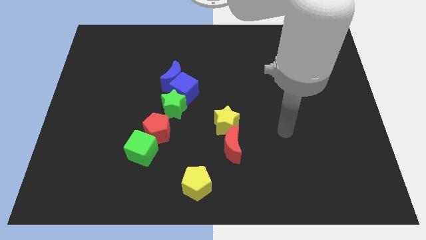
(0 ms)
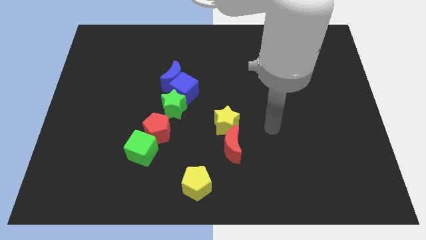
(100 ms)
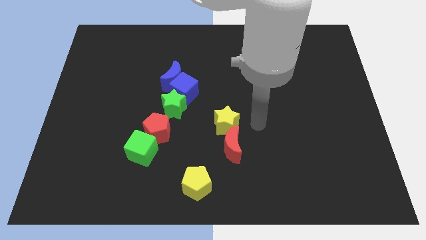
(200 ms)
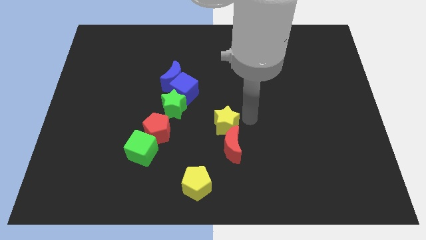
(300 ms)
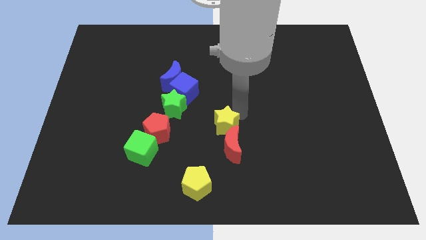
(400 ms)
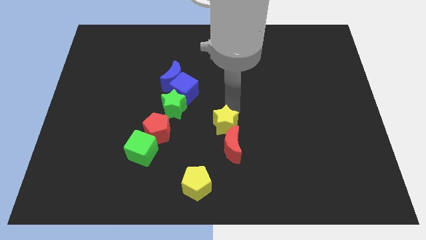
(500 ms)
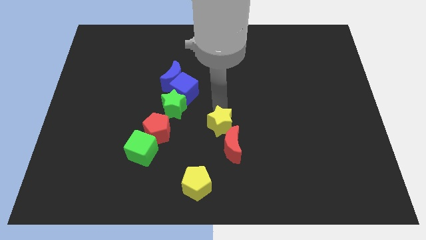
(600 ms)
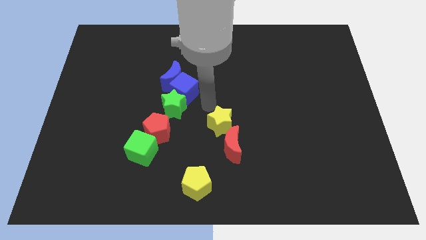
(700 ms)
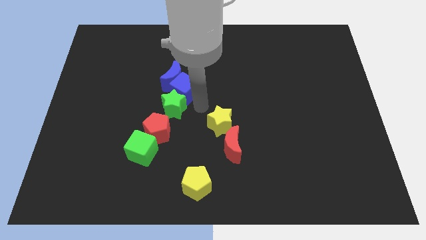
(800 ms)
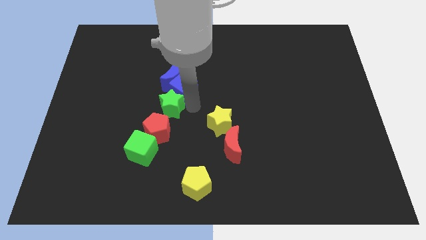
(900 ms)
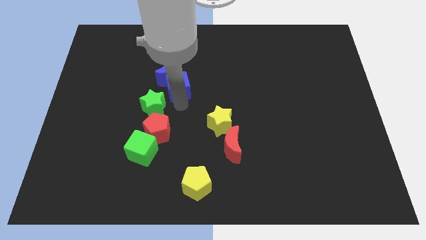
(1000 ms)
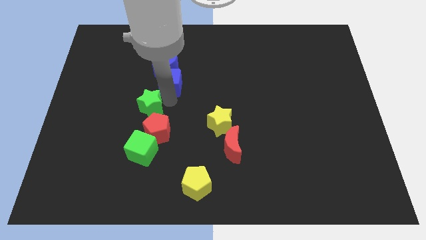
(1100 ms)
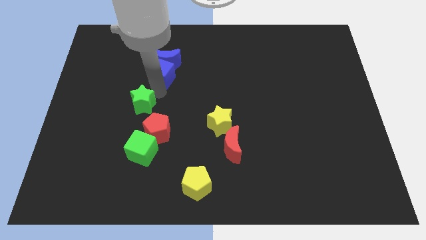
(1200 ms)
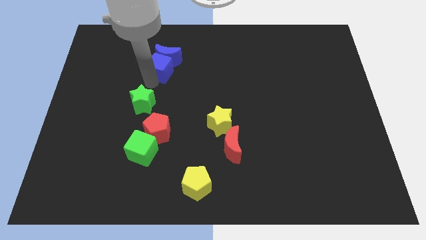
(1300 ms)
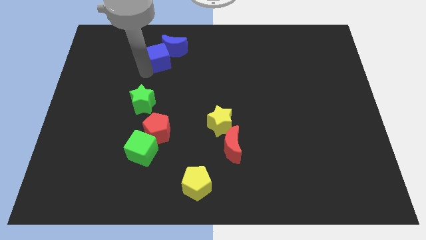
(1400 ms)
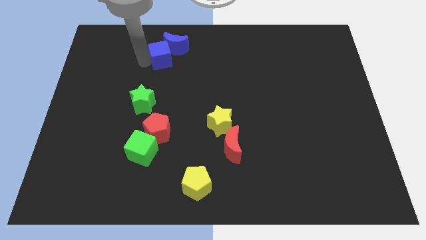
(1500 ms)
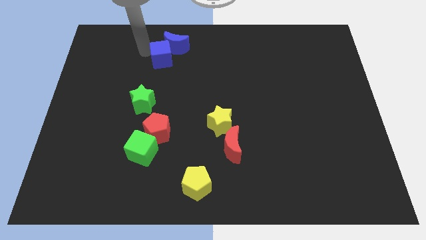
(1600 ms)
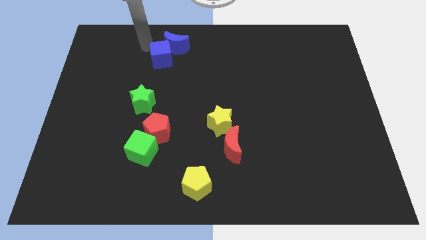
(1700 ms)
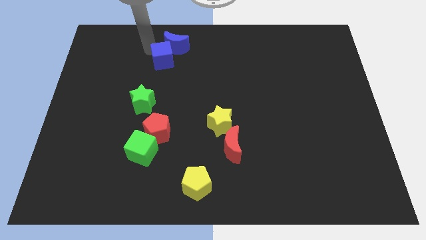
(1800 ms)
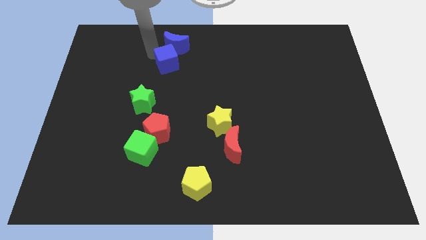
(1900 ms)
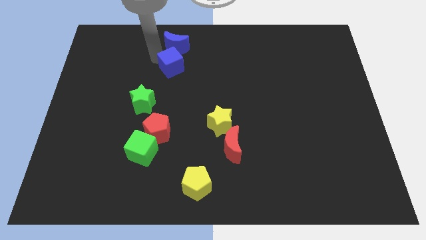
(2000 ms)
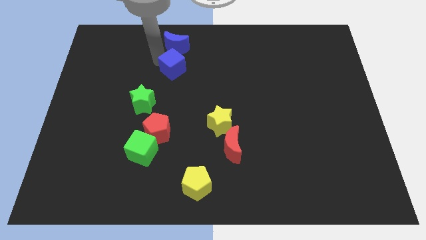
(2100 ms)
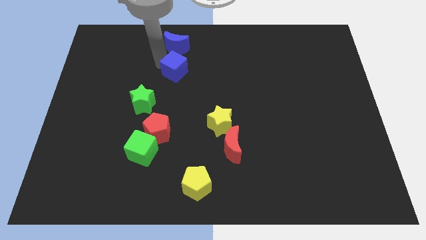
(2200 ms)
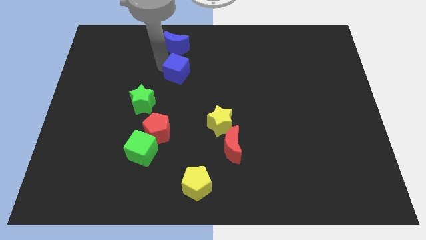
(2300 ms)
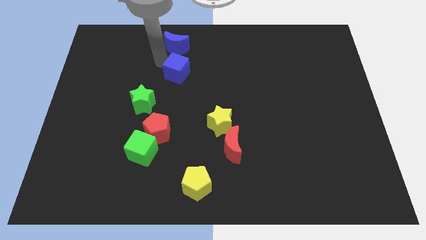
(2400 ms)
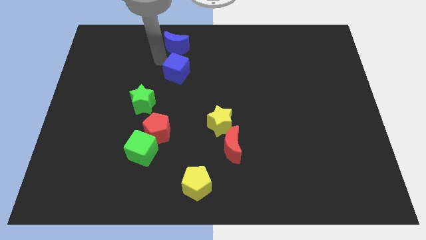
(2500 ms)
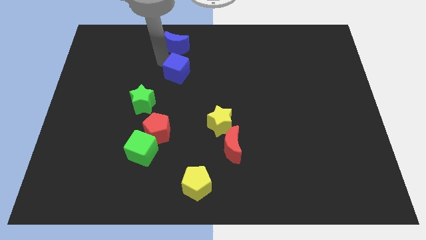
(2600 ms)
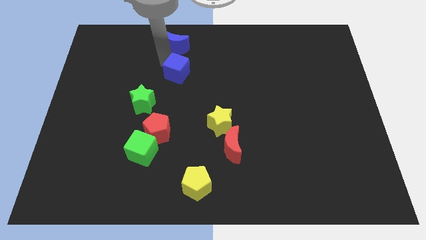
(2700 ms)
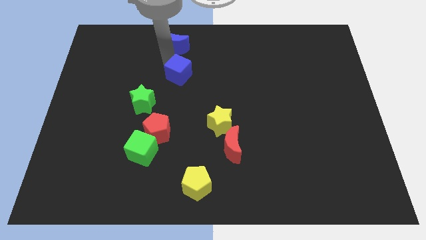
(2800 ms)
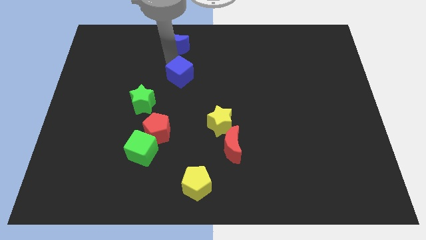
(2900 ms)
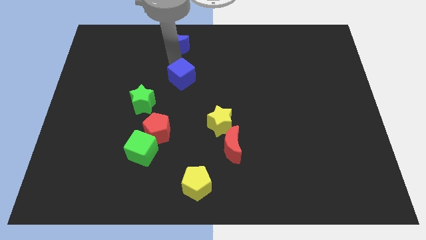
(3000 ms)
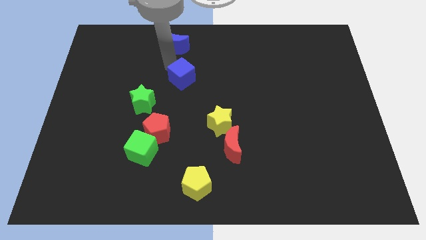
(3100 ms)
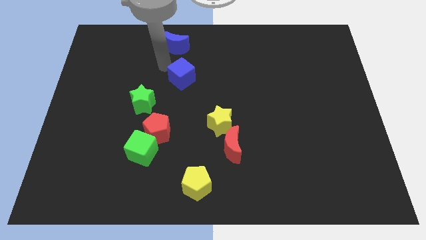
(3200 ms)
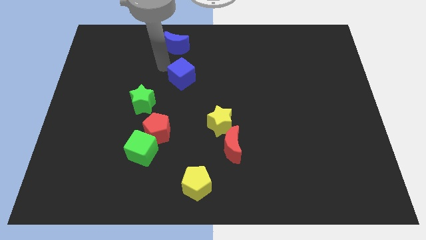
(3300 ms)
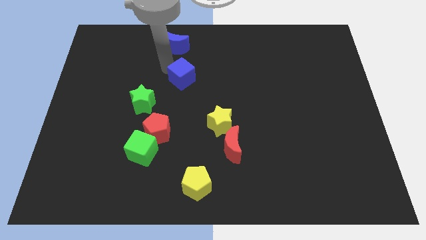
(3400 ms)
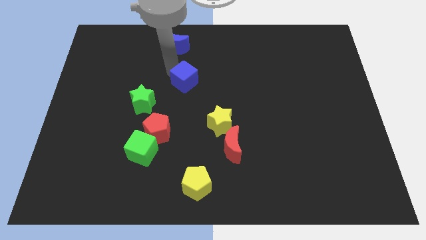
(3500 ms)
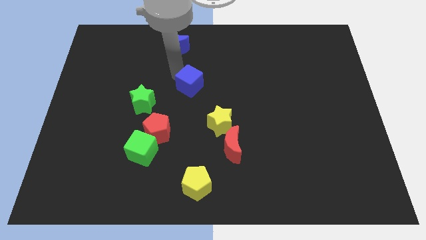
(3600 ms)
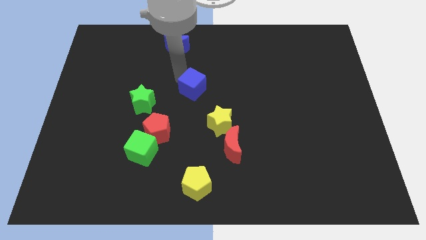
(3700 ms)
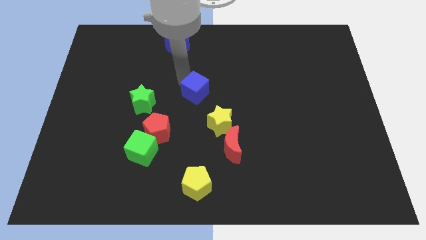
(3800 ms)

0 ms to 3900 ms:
separate the blue cube from the blue moon and green star

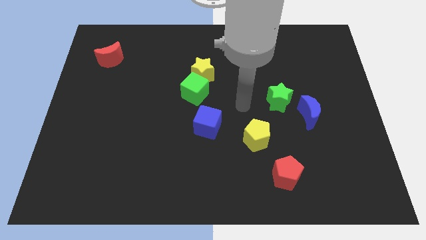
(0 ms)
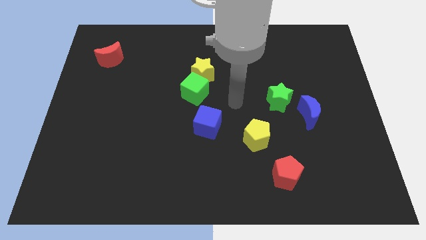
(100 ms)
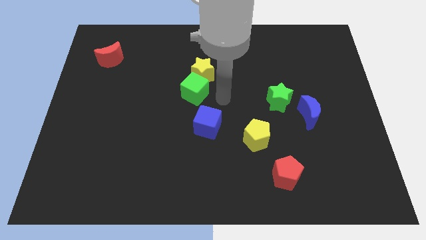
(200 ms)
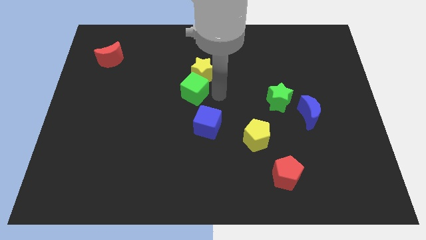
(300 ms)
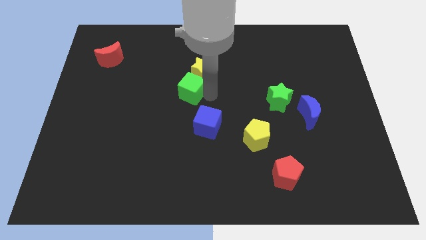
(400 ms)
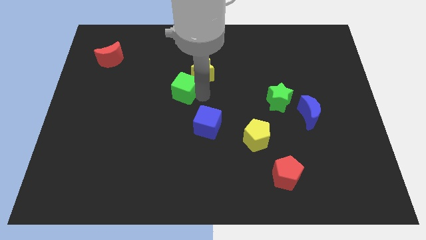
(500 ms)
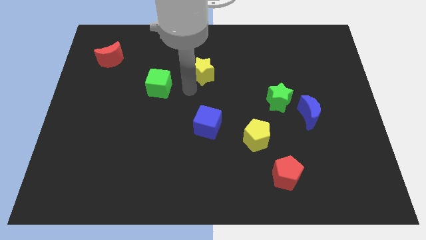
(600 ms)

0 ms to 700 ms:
separate the yellow star from the green cube

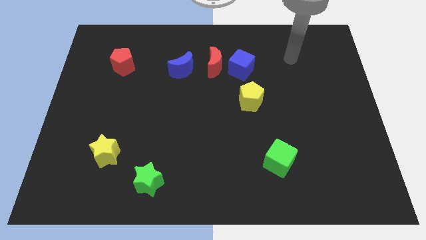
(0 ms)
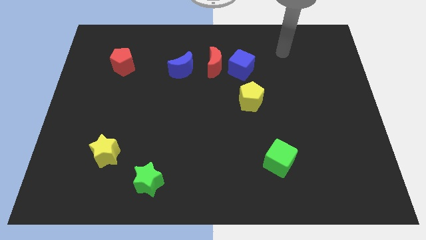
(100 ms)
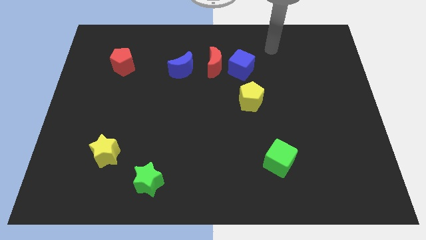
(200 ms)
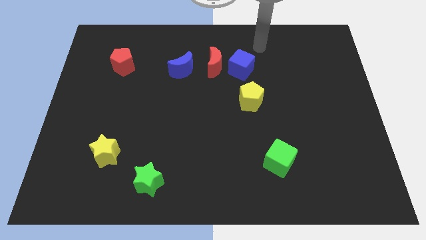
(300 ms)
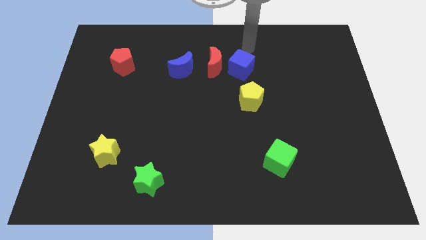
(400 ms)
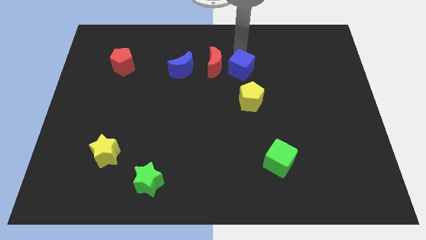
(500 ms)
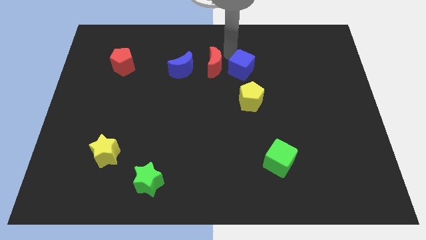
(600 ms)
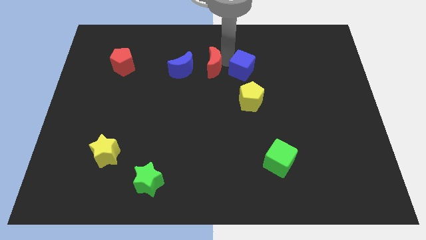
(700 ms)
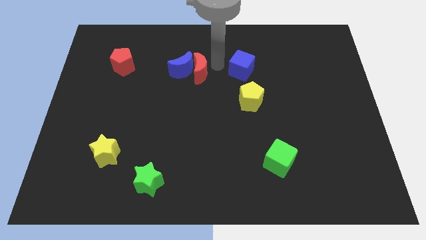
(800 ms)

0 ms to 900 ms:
pull the blue cube apart from the red moon

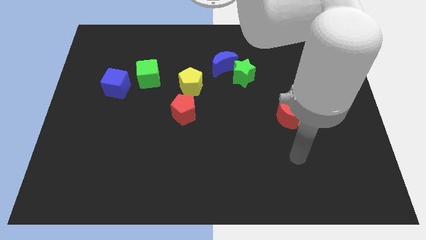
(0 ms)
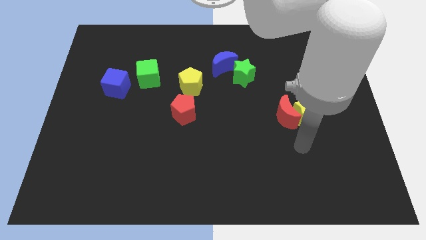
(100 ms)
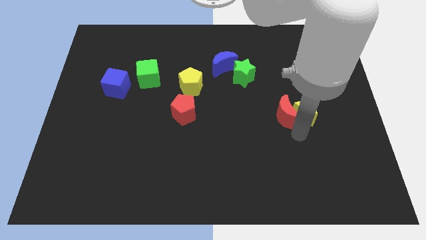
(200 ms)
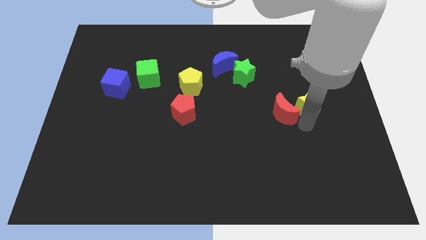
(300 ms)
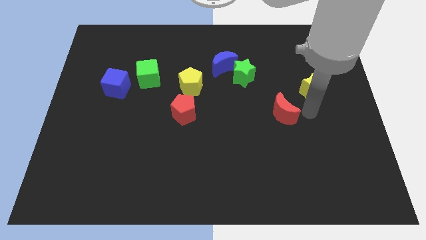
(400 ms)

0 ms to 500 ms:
separate the red moon from the yellow star

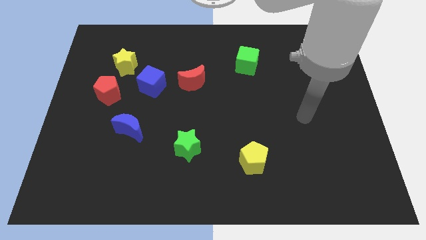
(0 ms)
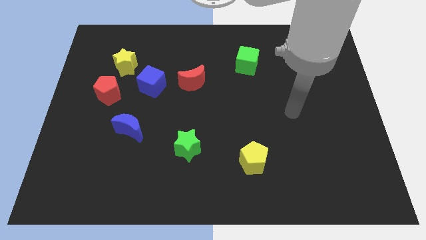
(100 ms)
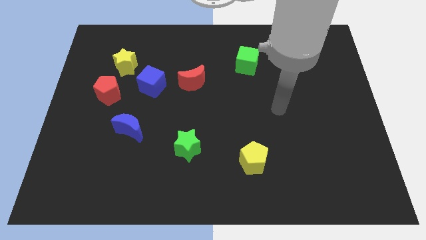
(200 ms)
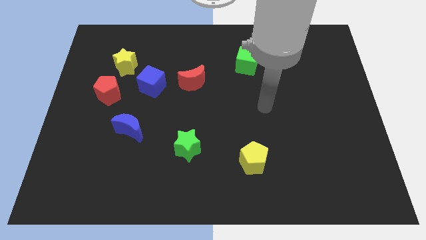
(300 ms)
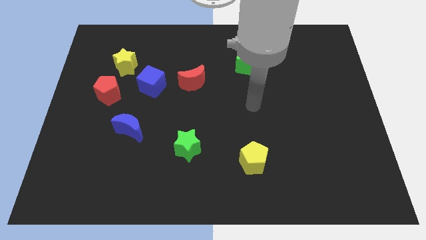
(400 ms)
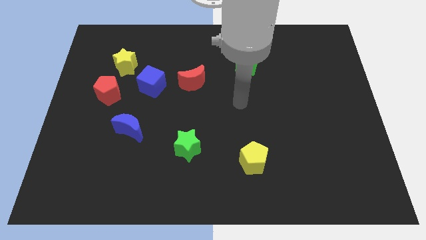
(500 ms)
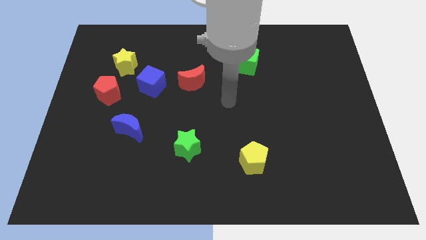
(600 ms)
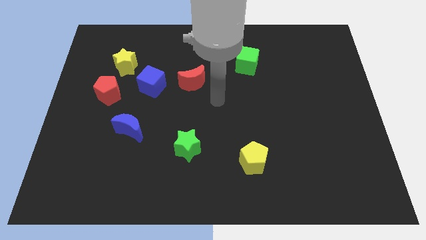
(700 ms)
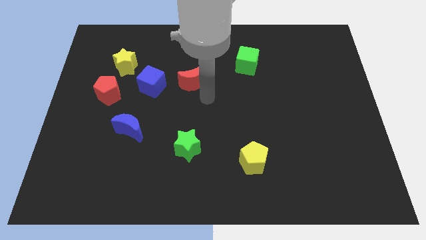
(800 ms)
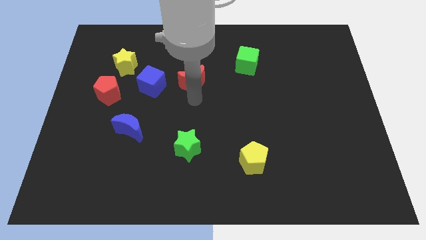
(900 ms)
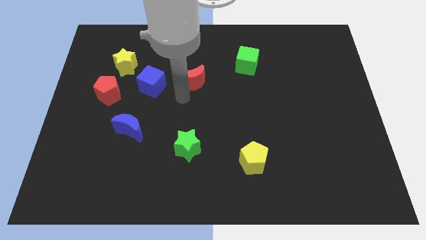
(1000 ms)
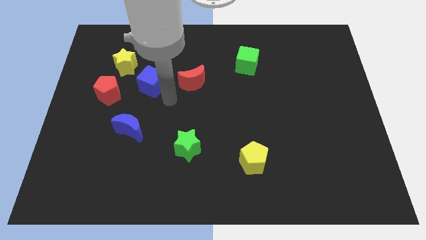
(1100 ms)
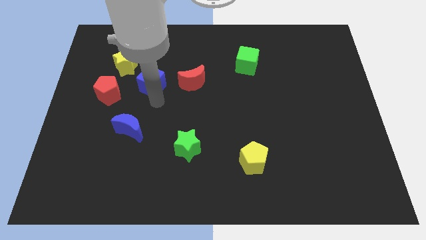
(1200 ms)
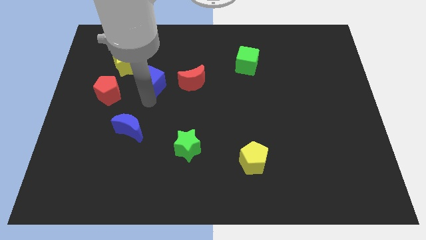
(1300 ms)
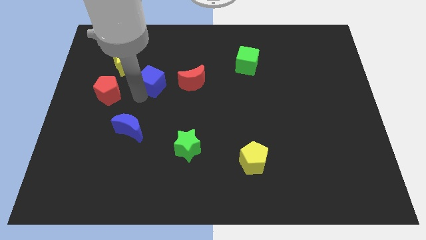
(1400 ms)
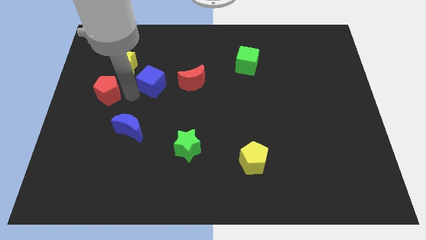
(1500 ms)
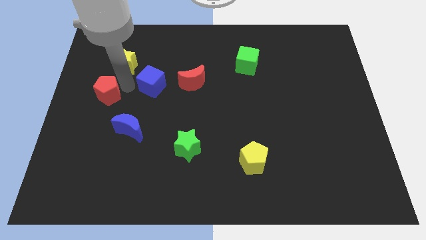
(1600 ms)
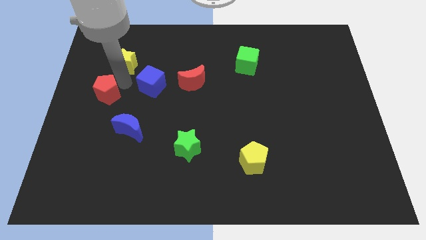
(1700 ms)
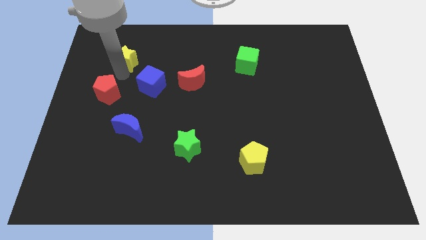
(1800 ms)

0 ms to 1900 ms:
move the red pentagon away from the yellow star

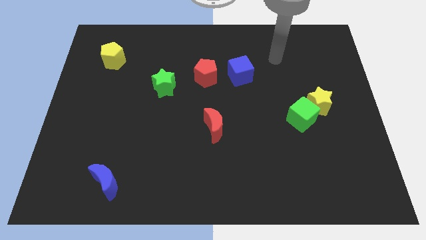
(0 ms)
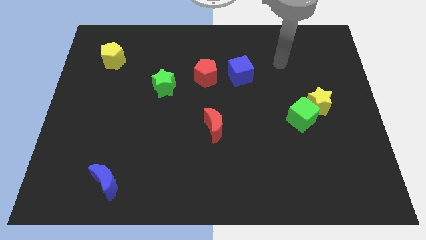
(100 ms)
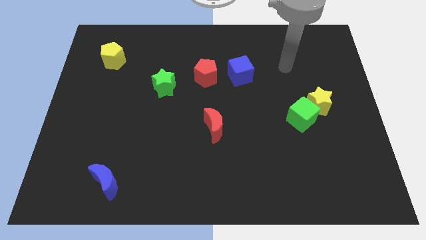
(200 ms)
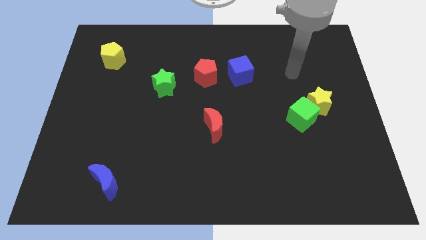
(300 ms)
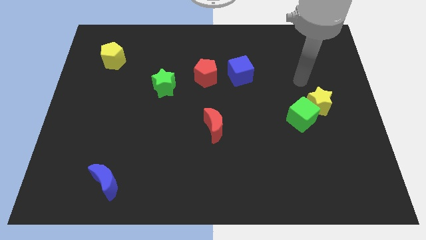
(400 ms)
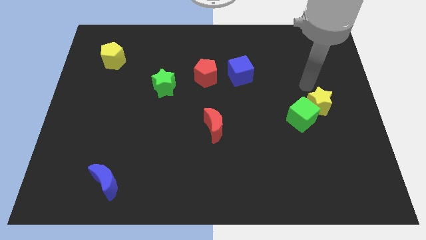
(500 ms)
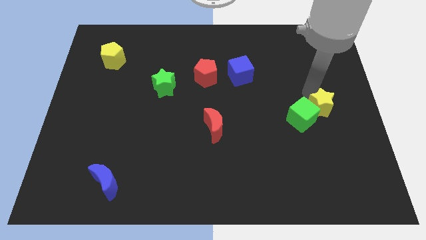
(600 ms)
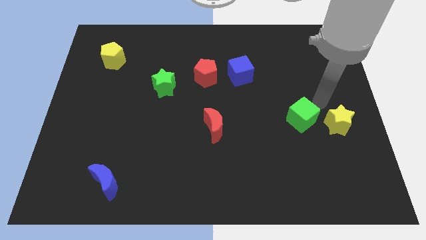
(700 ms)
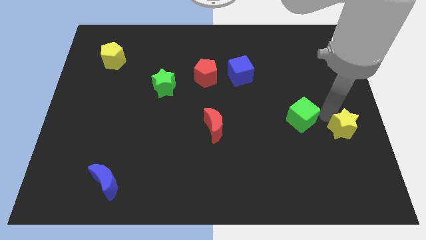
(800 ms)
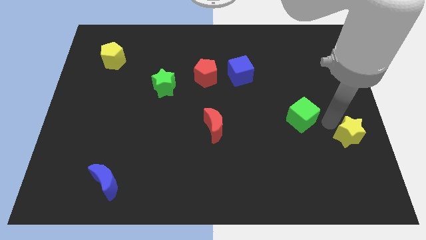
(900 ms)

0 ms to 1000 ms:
pull the green cube apart from the yellow star

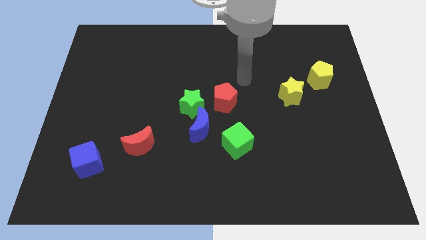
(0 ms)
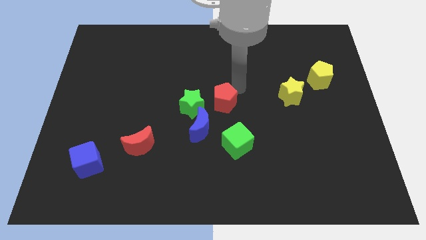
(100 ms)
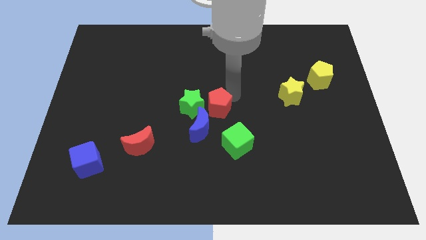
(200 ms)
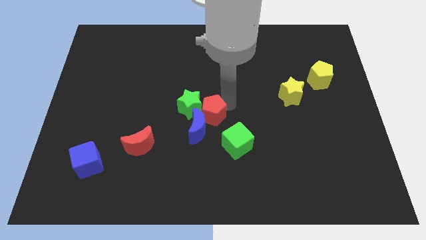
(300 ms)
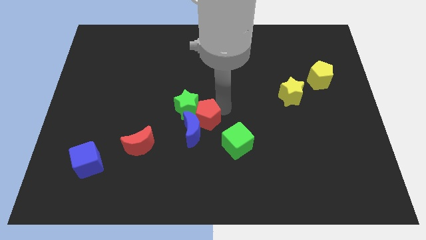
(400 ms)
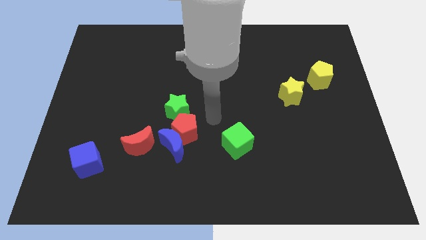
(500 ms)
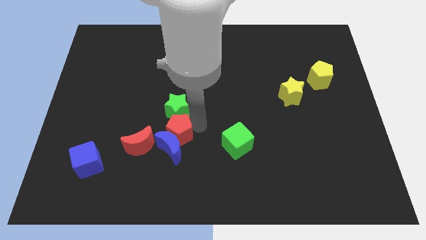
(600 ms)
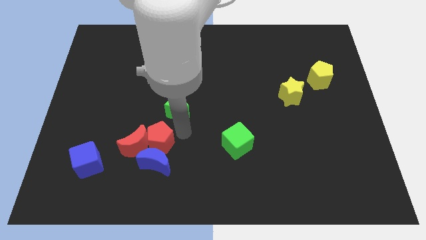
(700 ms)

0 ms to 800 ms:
move the green star away from the blue moon and red pentagon
